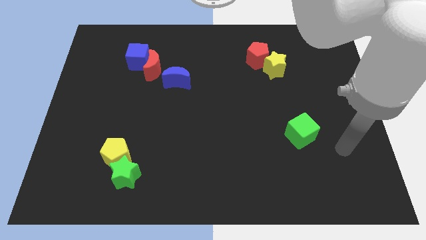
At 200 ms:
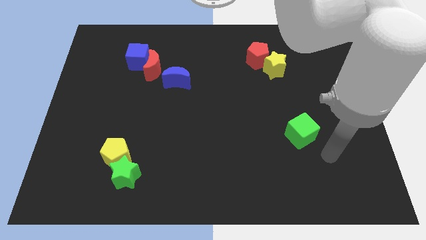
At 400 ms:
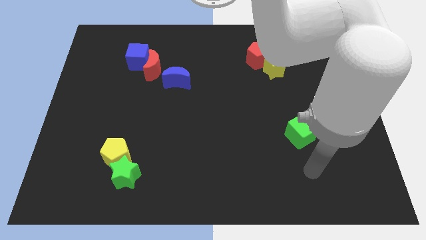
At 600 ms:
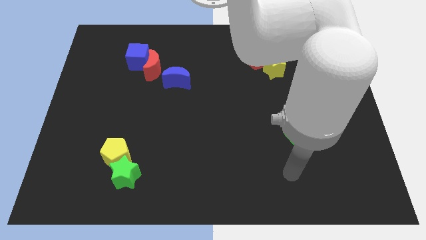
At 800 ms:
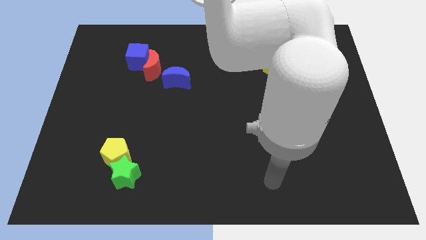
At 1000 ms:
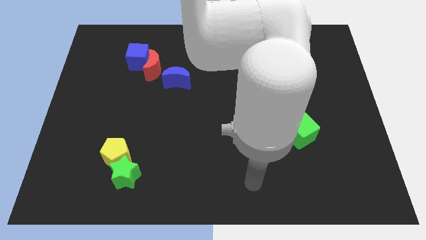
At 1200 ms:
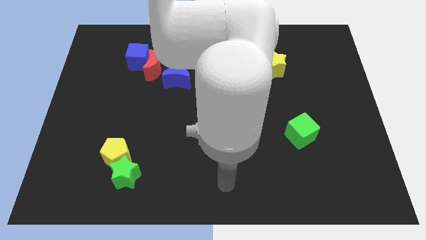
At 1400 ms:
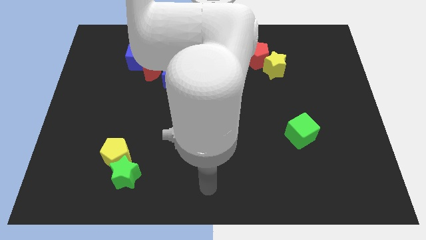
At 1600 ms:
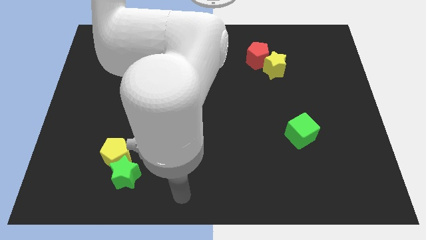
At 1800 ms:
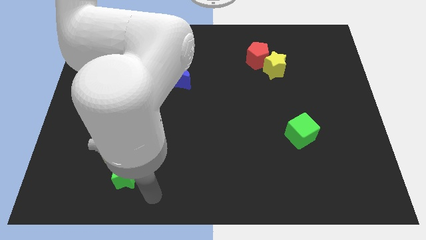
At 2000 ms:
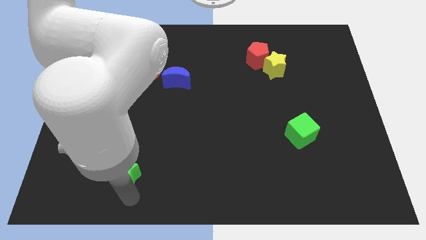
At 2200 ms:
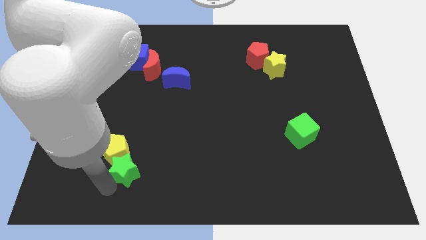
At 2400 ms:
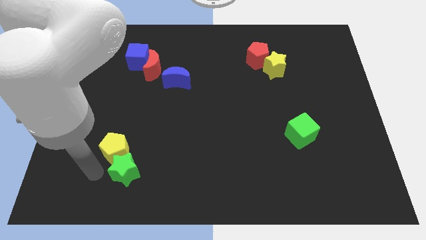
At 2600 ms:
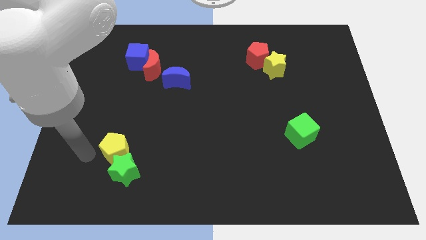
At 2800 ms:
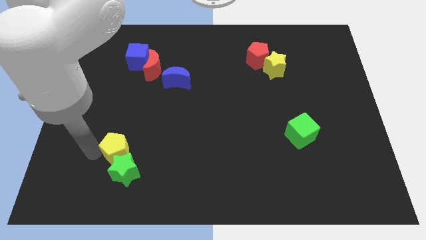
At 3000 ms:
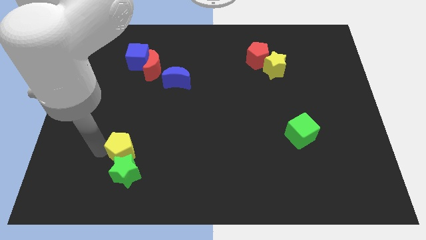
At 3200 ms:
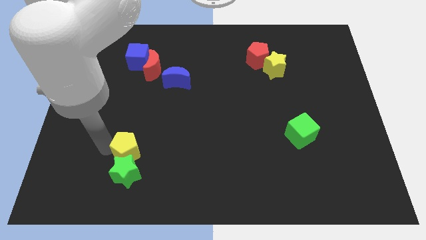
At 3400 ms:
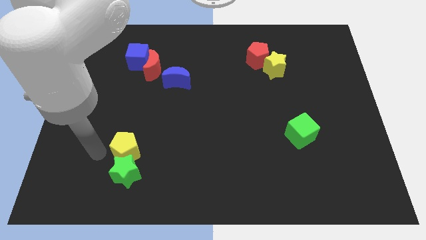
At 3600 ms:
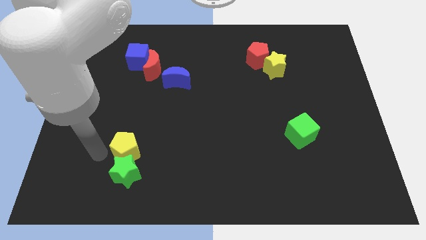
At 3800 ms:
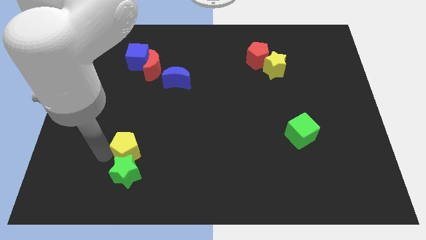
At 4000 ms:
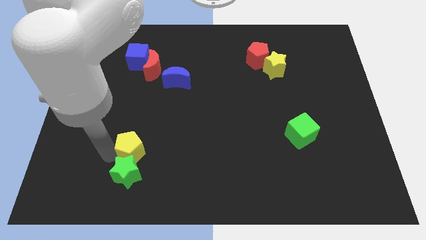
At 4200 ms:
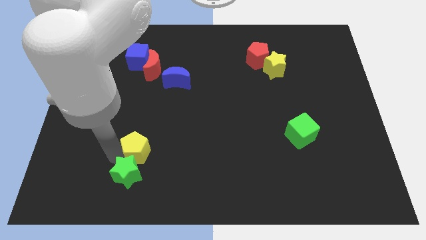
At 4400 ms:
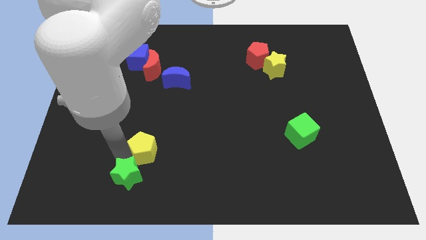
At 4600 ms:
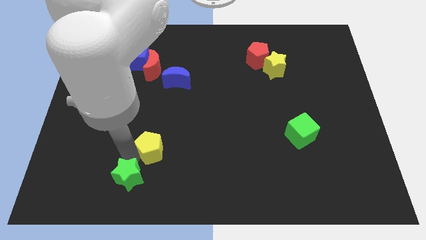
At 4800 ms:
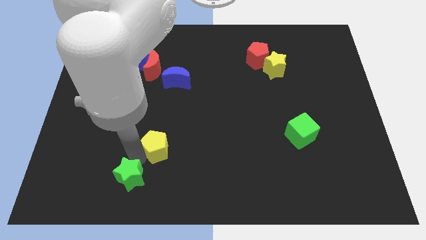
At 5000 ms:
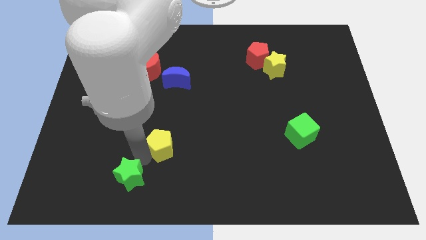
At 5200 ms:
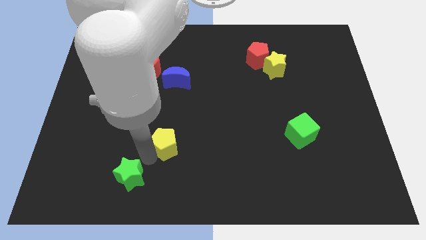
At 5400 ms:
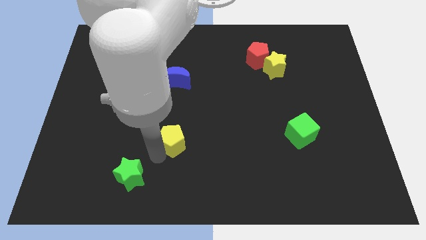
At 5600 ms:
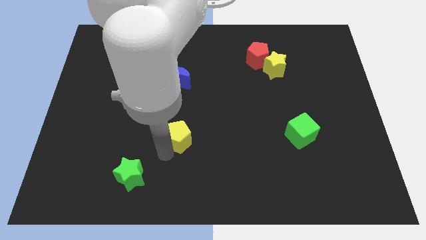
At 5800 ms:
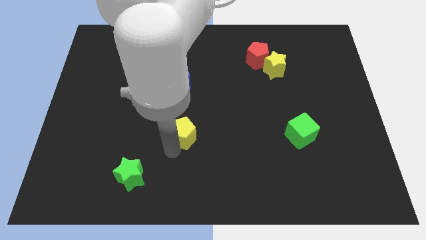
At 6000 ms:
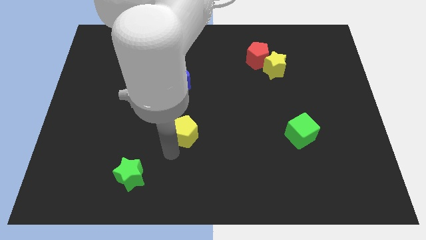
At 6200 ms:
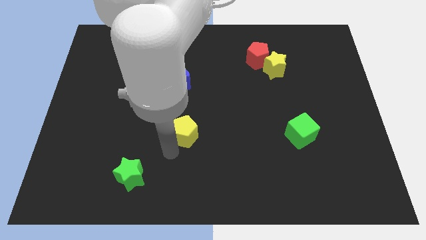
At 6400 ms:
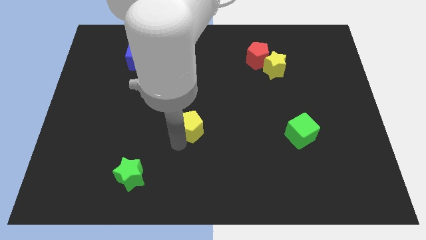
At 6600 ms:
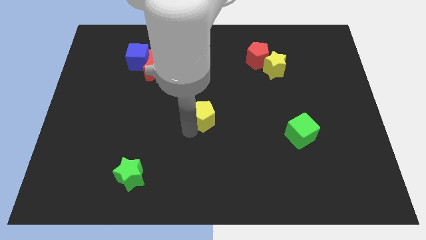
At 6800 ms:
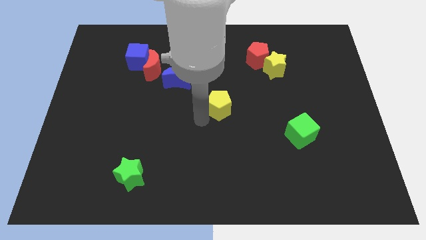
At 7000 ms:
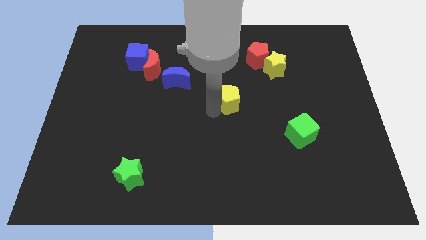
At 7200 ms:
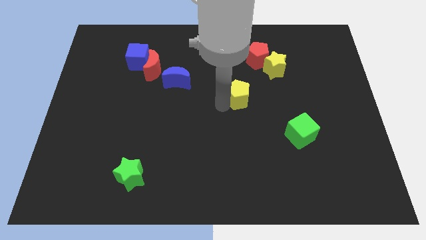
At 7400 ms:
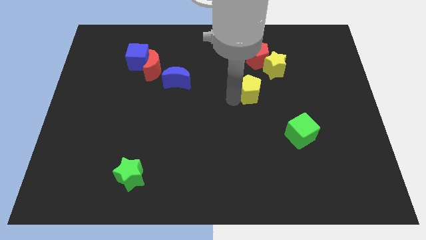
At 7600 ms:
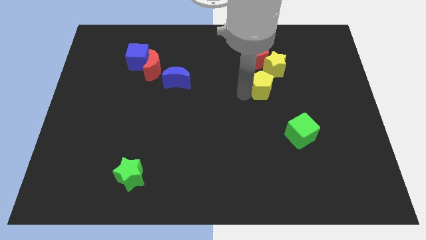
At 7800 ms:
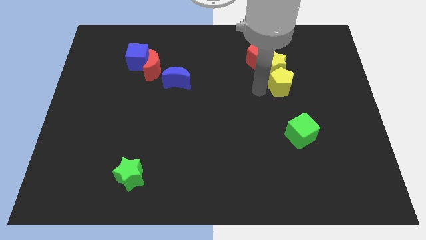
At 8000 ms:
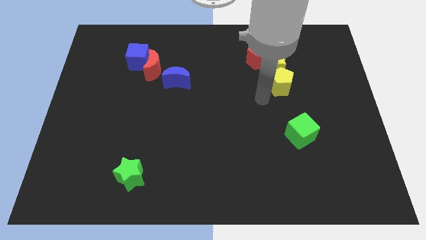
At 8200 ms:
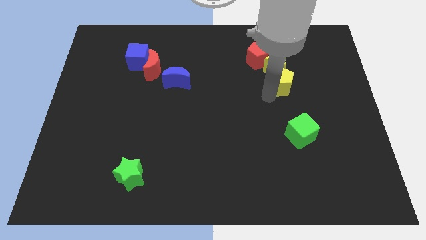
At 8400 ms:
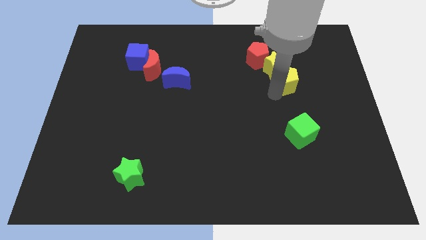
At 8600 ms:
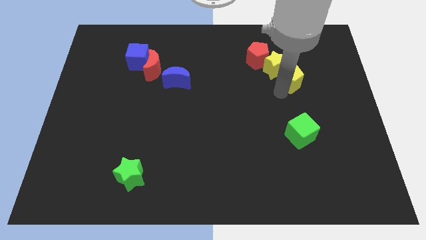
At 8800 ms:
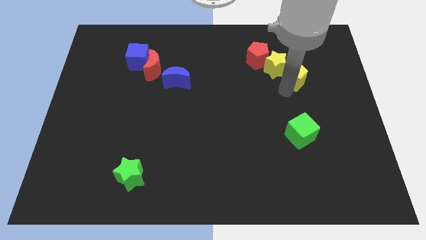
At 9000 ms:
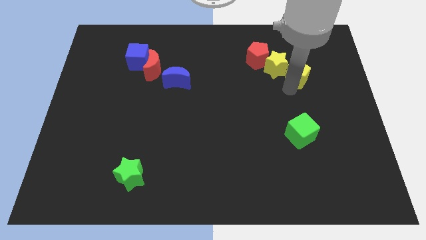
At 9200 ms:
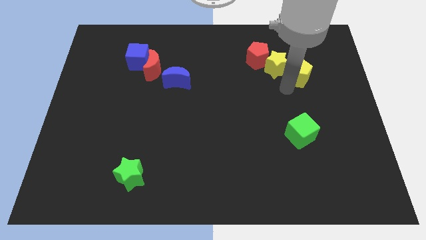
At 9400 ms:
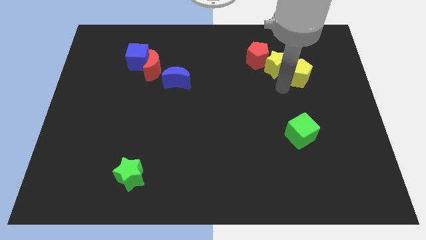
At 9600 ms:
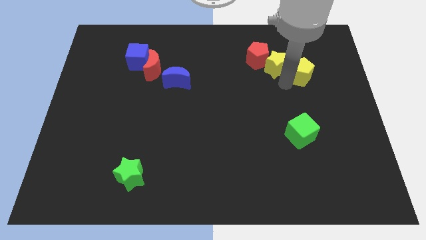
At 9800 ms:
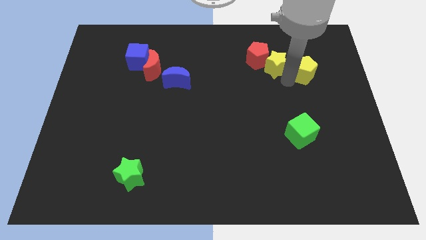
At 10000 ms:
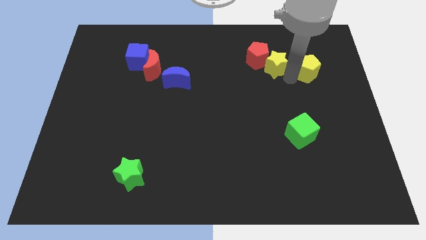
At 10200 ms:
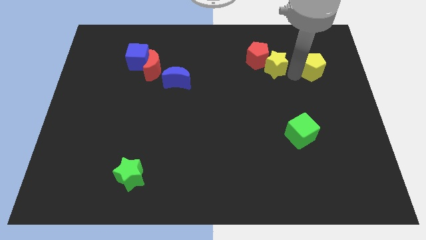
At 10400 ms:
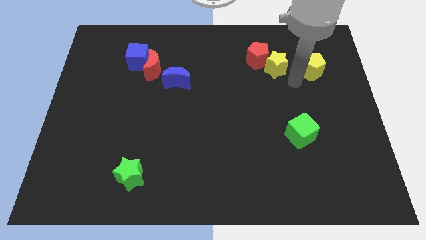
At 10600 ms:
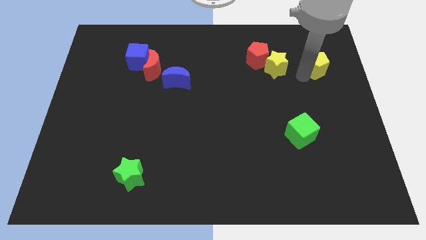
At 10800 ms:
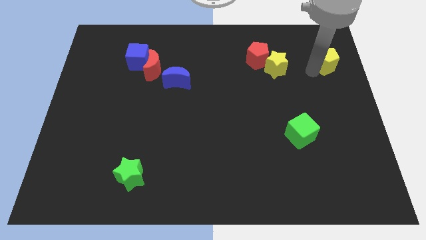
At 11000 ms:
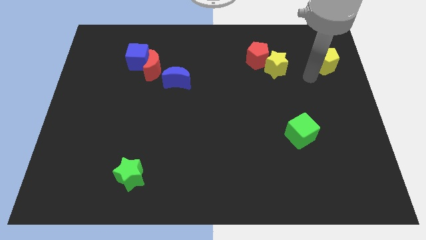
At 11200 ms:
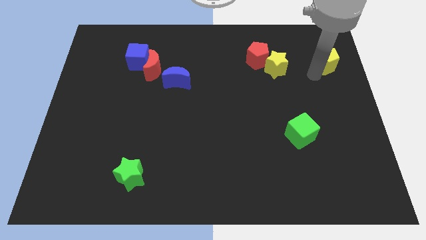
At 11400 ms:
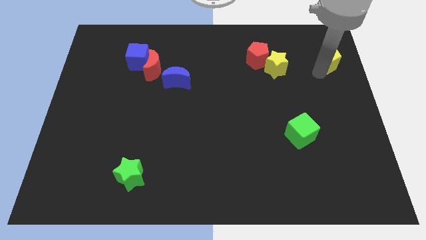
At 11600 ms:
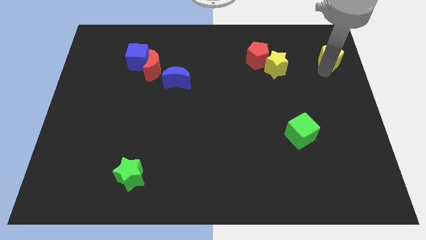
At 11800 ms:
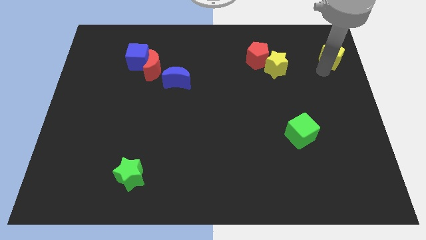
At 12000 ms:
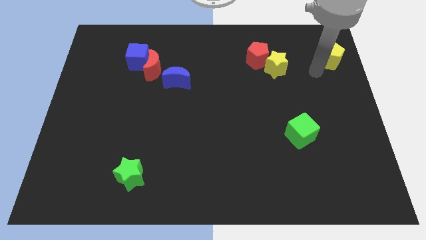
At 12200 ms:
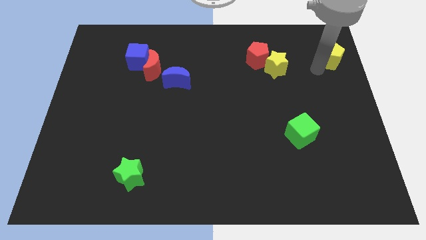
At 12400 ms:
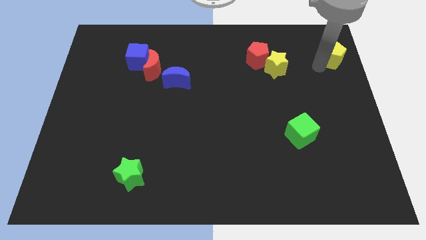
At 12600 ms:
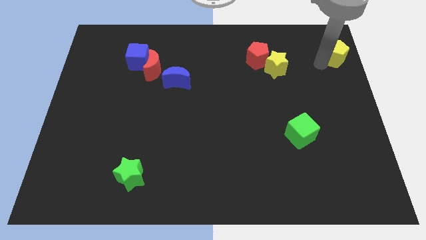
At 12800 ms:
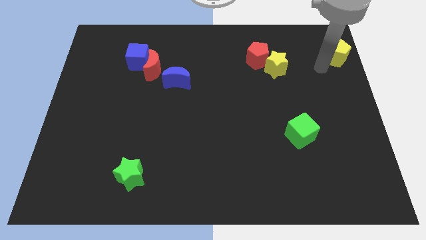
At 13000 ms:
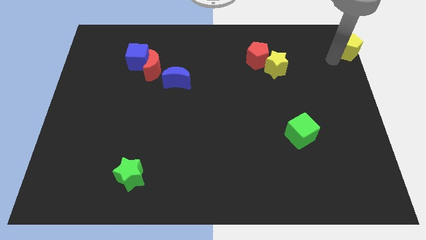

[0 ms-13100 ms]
put the yellow pentagon to the top right corner

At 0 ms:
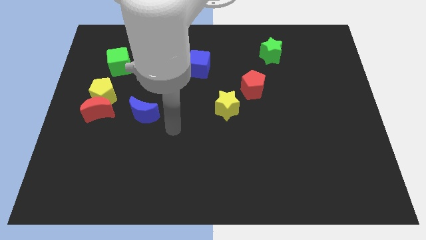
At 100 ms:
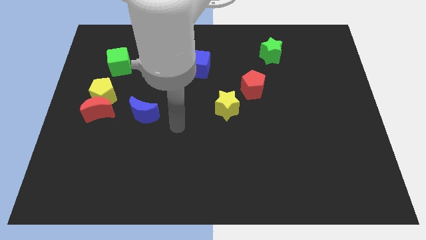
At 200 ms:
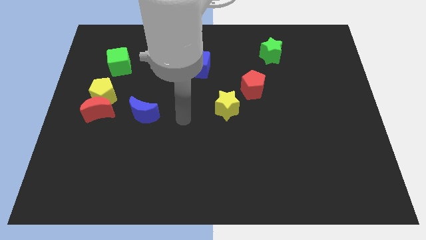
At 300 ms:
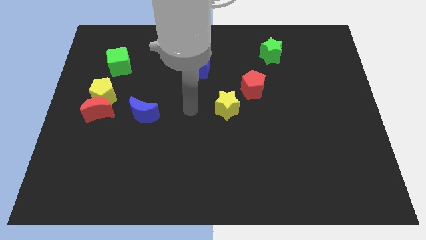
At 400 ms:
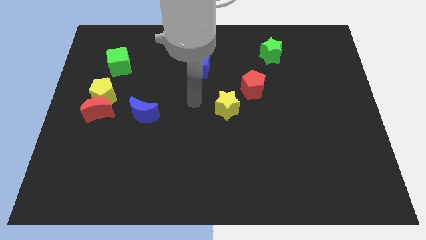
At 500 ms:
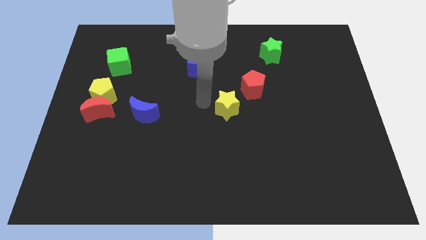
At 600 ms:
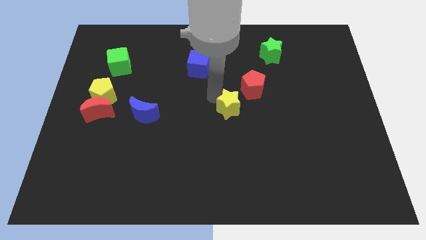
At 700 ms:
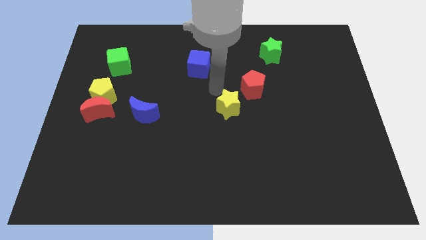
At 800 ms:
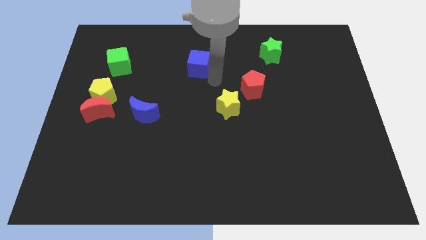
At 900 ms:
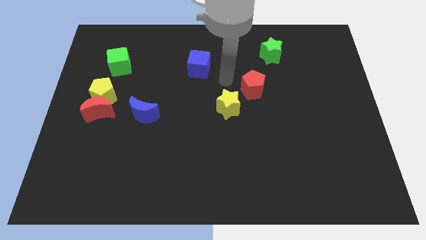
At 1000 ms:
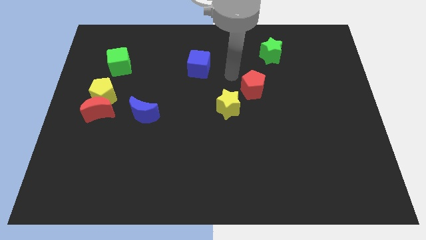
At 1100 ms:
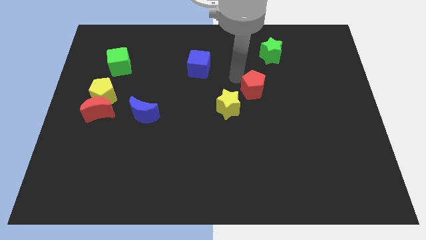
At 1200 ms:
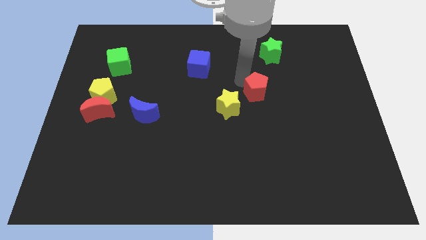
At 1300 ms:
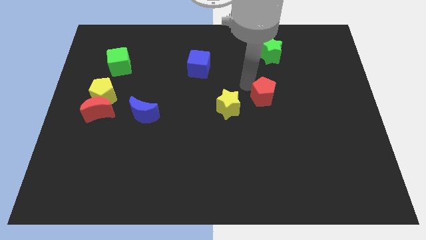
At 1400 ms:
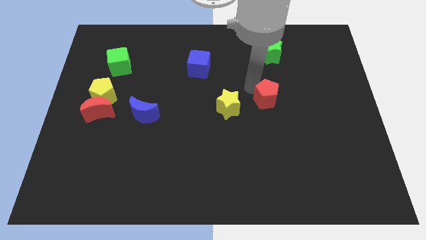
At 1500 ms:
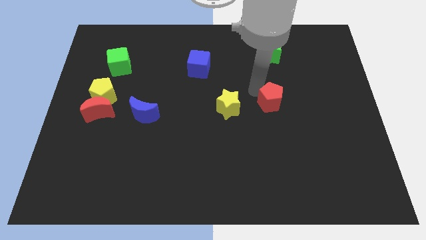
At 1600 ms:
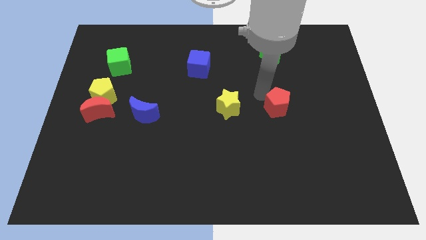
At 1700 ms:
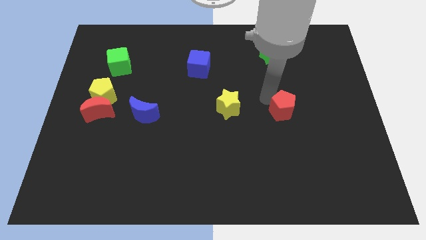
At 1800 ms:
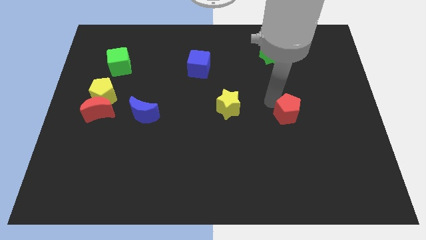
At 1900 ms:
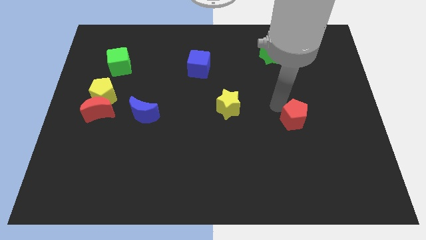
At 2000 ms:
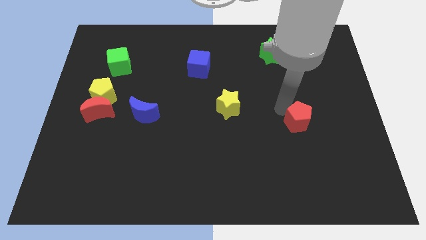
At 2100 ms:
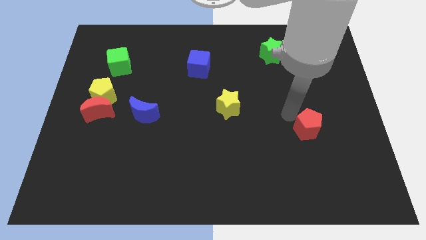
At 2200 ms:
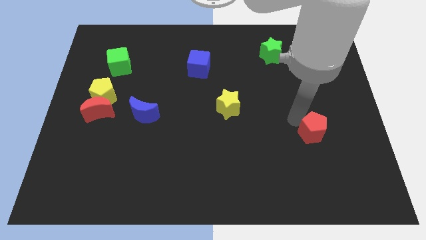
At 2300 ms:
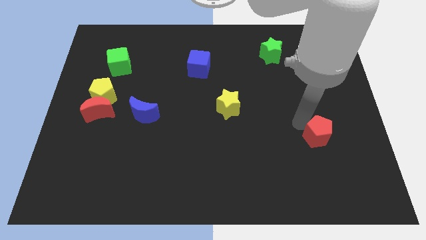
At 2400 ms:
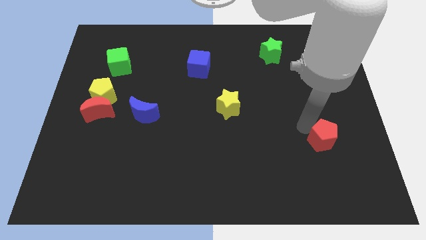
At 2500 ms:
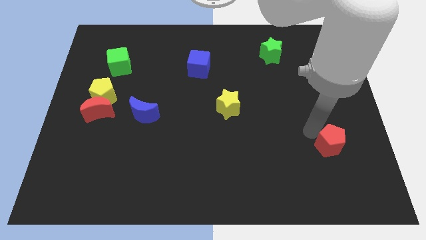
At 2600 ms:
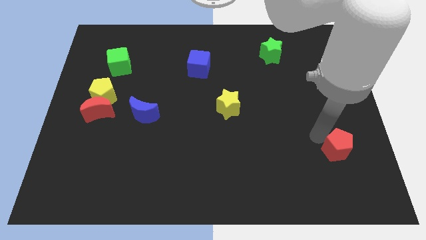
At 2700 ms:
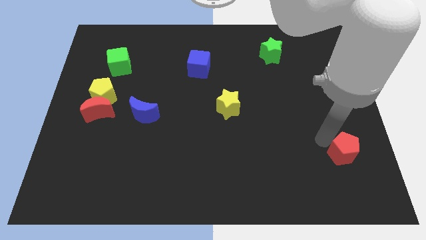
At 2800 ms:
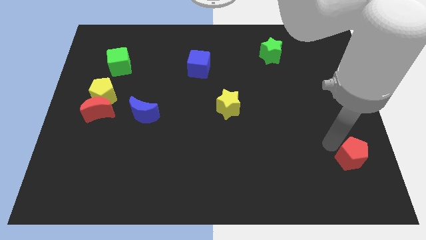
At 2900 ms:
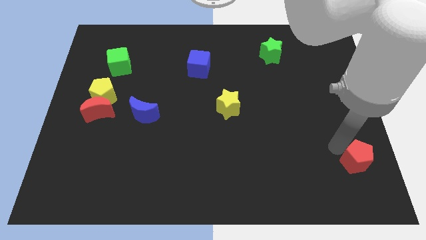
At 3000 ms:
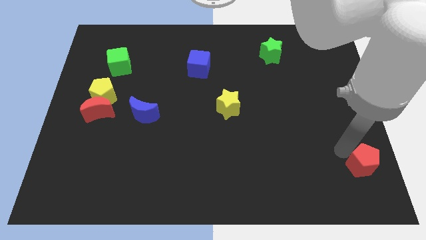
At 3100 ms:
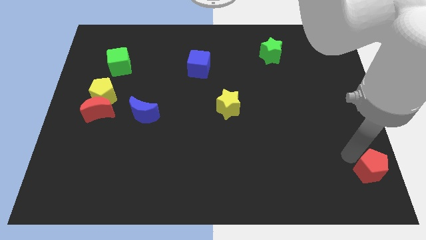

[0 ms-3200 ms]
put the red pentagon to the bottom right
